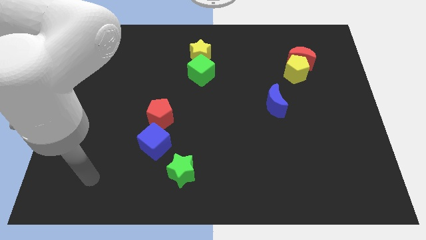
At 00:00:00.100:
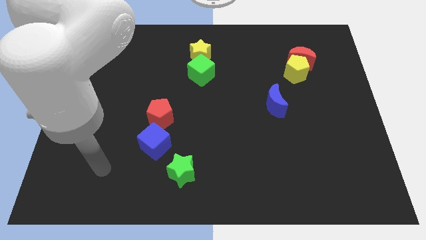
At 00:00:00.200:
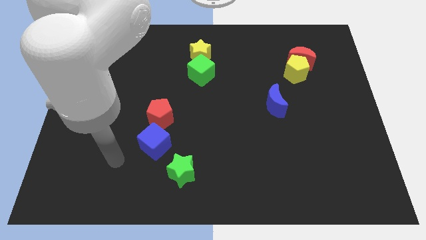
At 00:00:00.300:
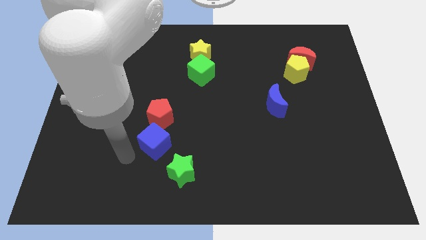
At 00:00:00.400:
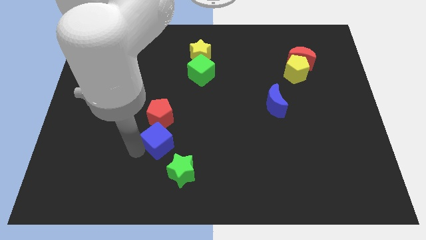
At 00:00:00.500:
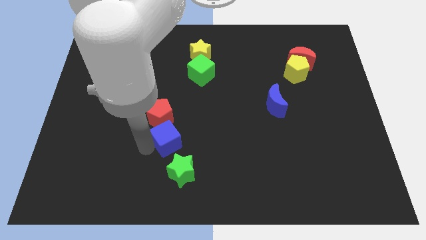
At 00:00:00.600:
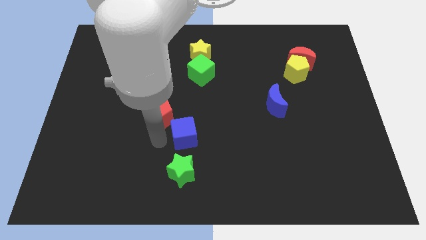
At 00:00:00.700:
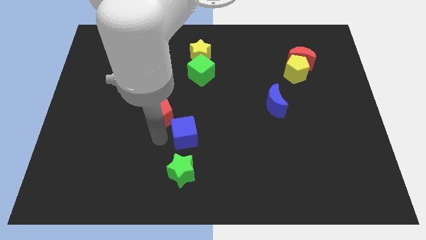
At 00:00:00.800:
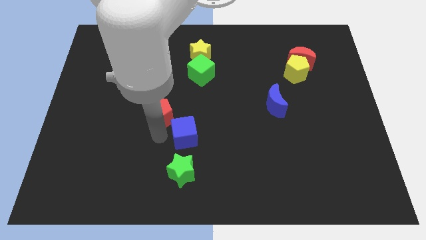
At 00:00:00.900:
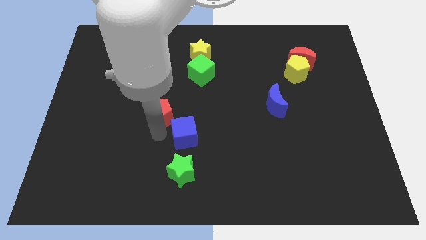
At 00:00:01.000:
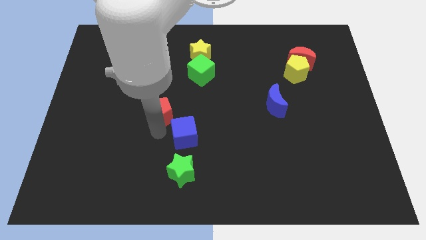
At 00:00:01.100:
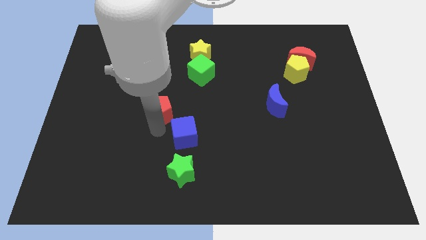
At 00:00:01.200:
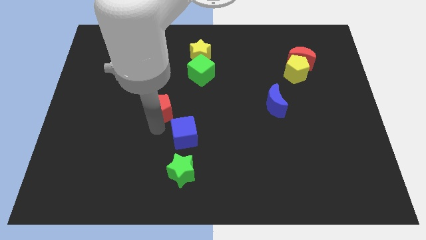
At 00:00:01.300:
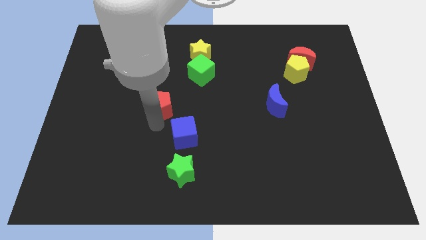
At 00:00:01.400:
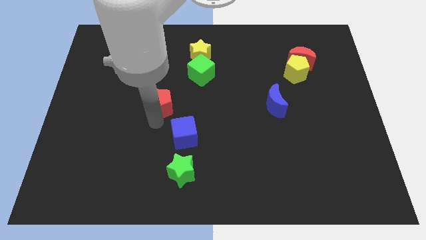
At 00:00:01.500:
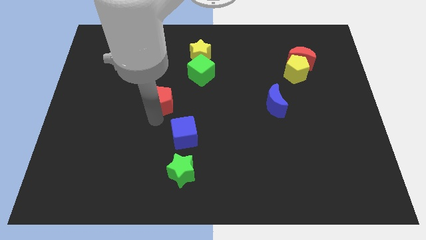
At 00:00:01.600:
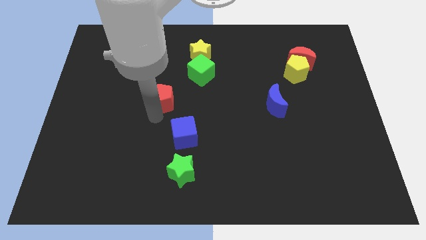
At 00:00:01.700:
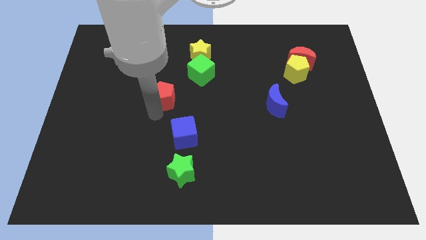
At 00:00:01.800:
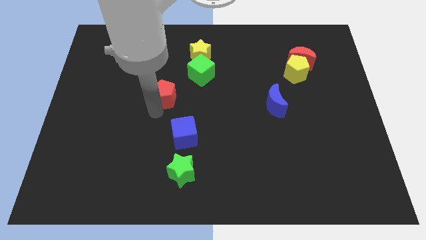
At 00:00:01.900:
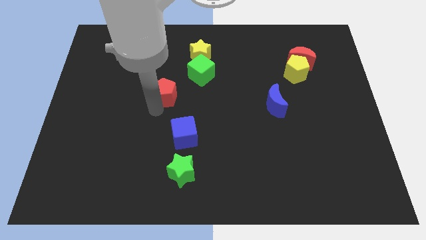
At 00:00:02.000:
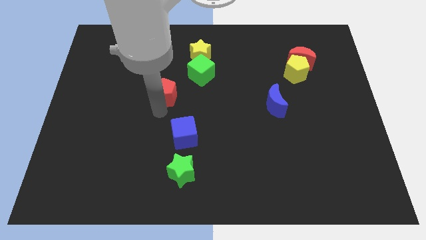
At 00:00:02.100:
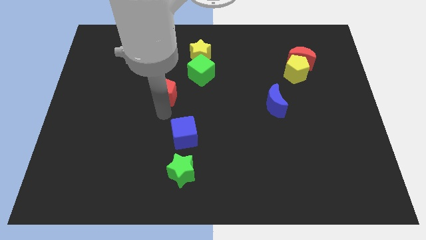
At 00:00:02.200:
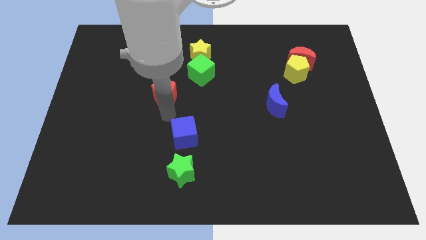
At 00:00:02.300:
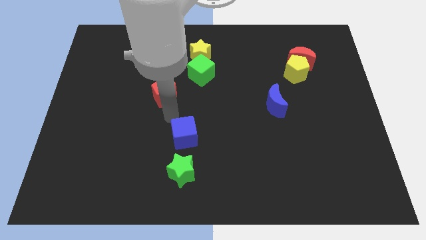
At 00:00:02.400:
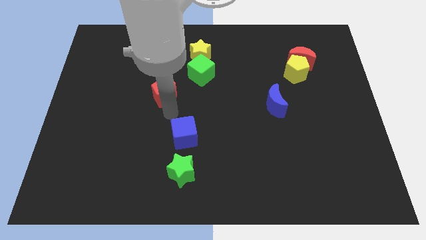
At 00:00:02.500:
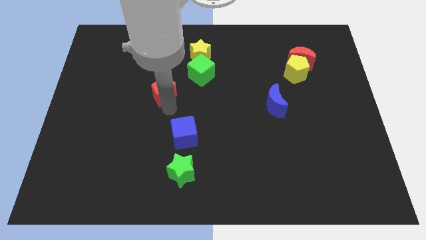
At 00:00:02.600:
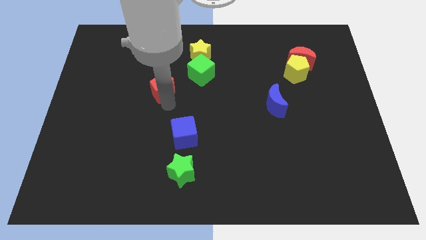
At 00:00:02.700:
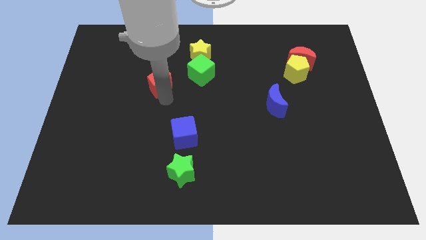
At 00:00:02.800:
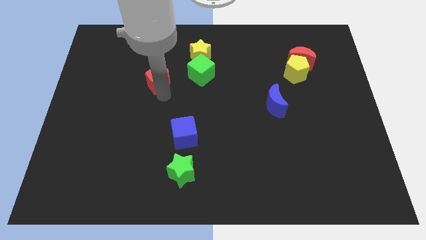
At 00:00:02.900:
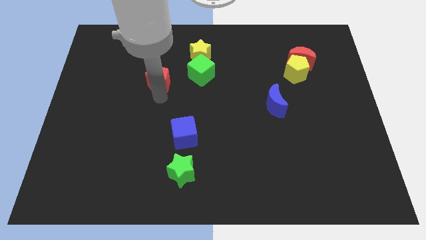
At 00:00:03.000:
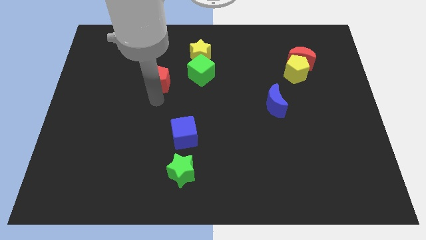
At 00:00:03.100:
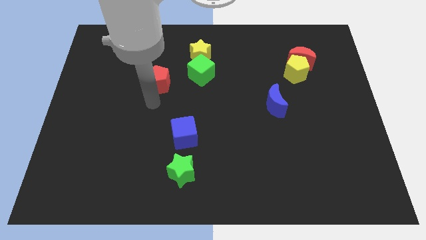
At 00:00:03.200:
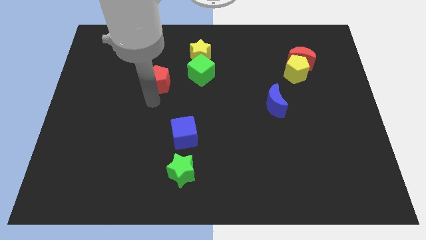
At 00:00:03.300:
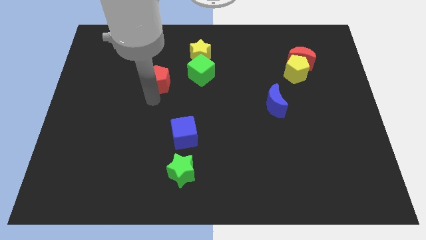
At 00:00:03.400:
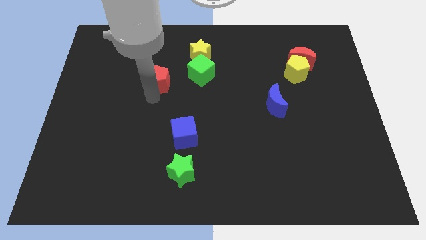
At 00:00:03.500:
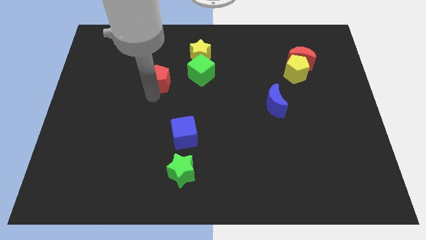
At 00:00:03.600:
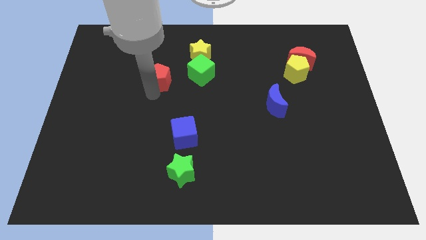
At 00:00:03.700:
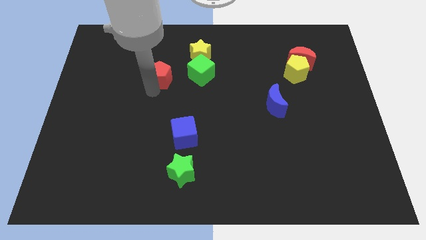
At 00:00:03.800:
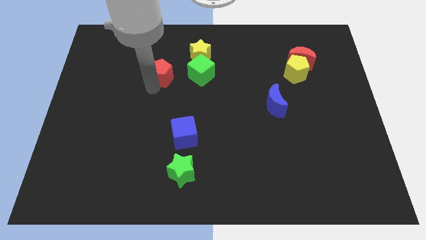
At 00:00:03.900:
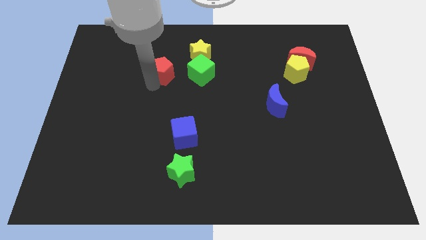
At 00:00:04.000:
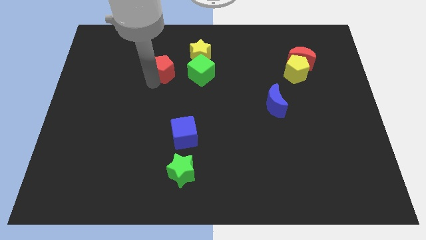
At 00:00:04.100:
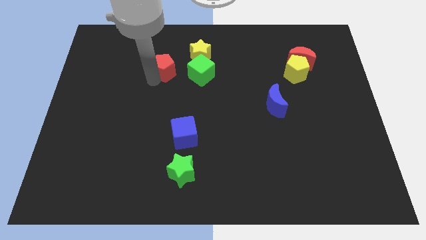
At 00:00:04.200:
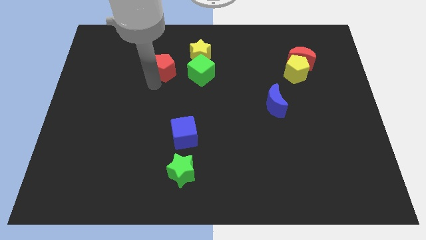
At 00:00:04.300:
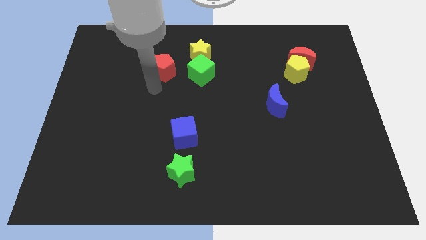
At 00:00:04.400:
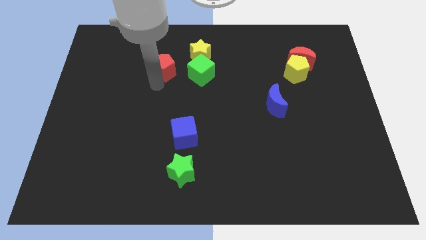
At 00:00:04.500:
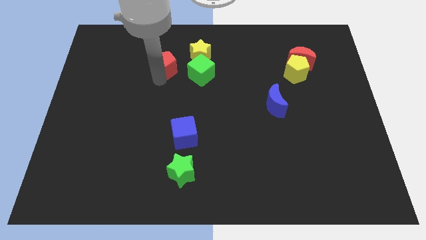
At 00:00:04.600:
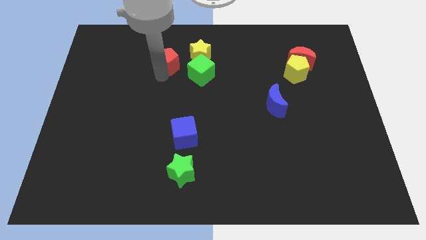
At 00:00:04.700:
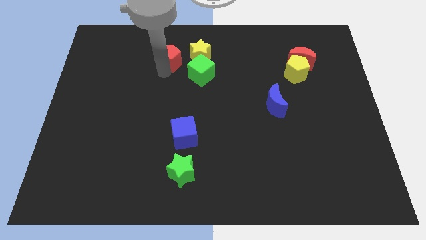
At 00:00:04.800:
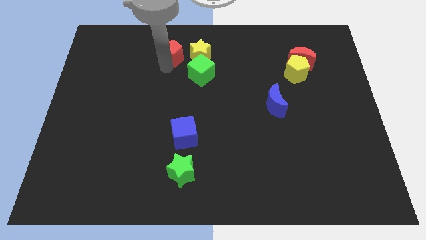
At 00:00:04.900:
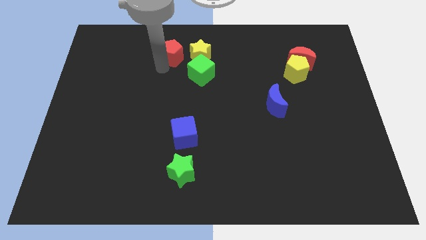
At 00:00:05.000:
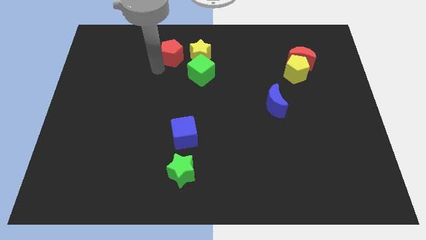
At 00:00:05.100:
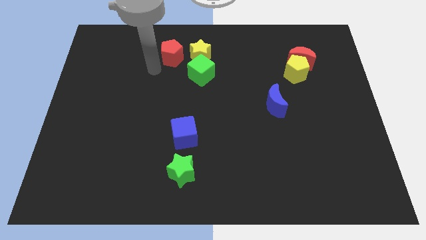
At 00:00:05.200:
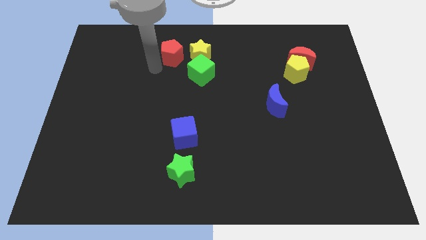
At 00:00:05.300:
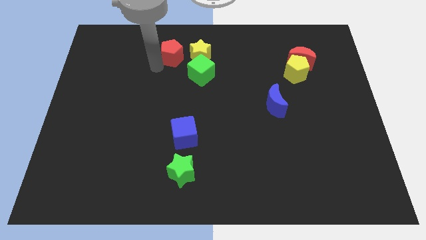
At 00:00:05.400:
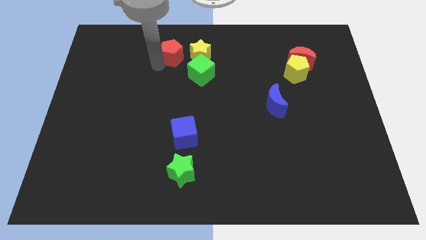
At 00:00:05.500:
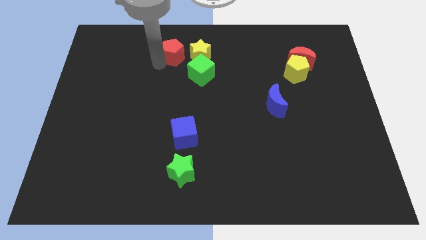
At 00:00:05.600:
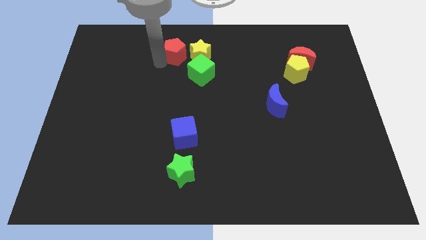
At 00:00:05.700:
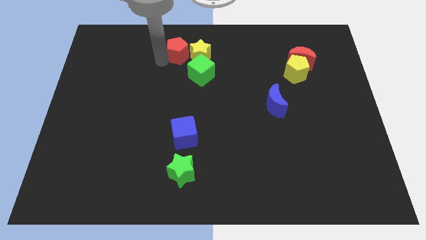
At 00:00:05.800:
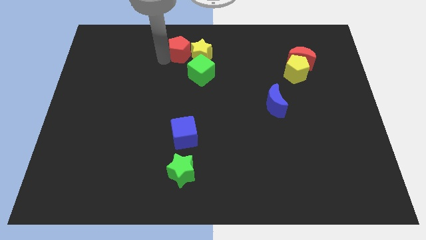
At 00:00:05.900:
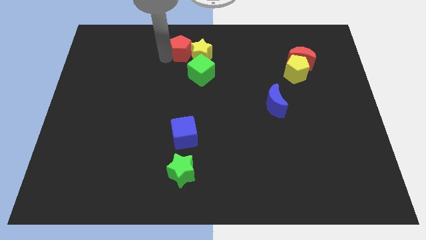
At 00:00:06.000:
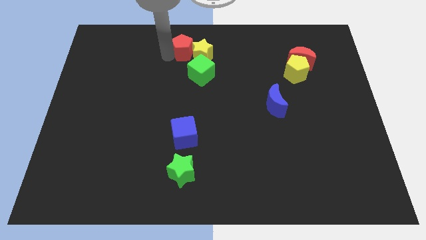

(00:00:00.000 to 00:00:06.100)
slide the red pentagon to the top
